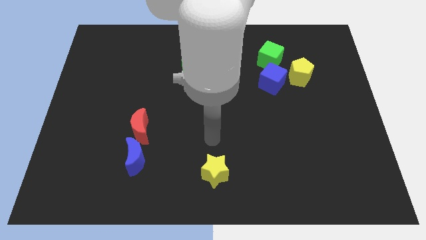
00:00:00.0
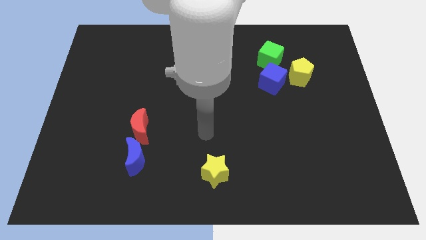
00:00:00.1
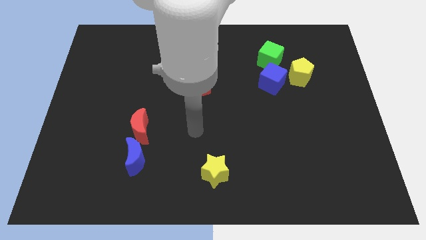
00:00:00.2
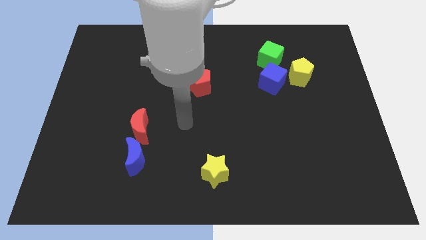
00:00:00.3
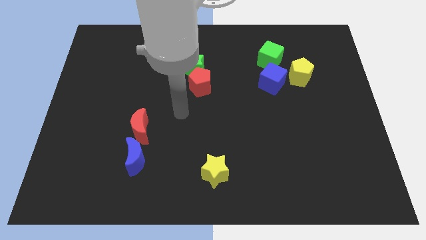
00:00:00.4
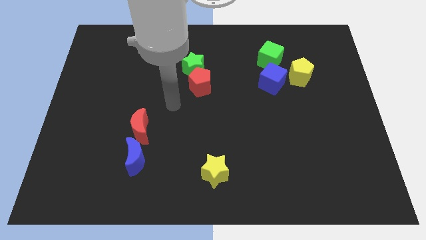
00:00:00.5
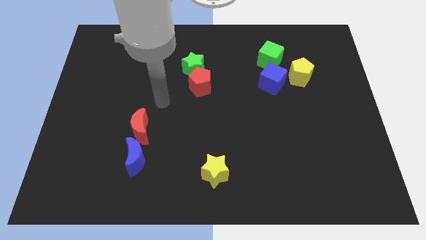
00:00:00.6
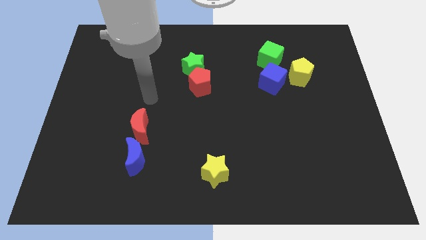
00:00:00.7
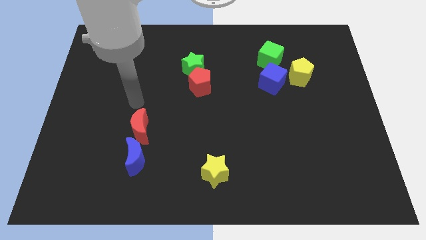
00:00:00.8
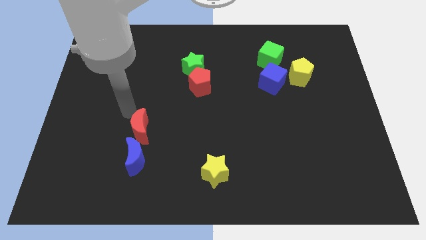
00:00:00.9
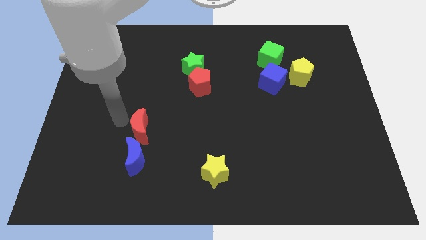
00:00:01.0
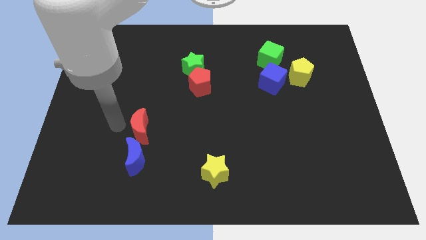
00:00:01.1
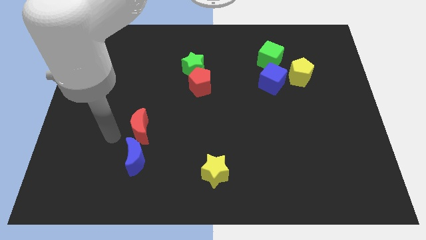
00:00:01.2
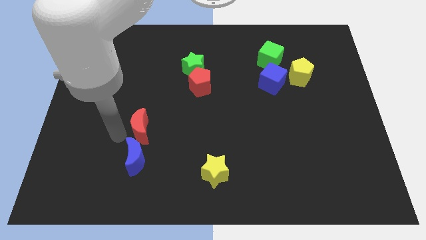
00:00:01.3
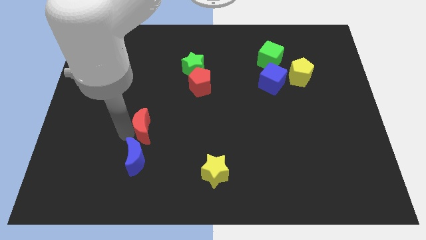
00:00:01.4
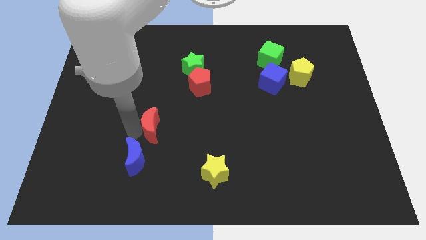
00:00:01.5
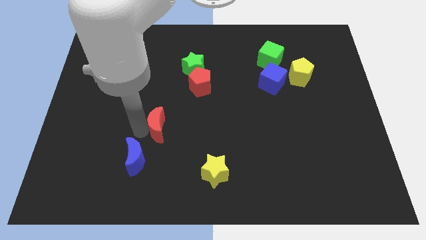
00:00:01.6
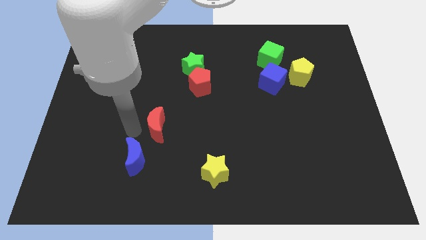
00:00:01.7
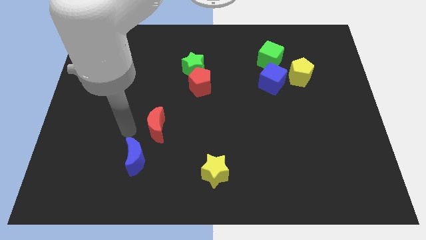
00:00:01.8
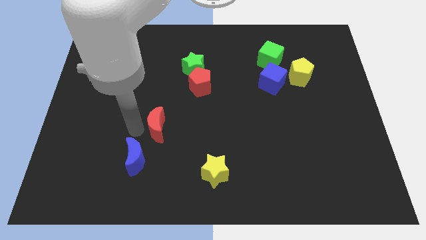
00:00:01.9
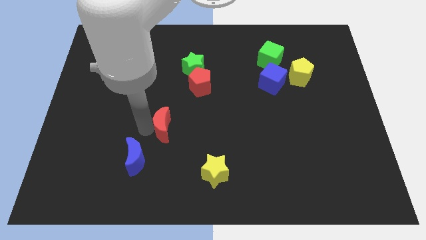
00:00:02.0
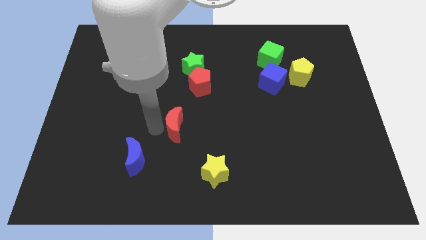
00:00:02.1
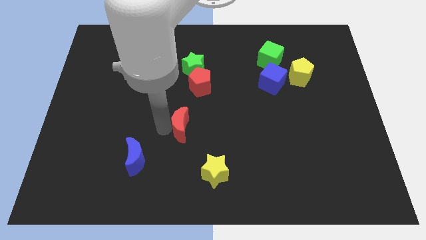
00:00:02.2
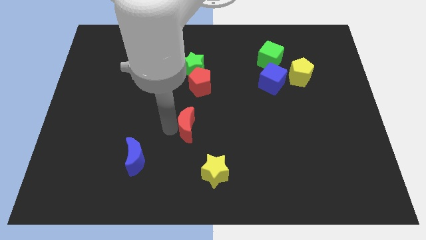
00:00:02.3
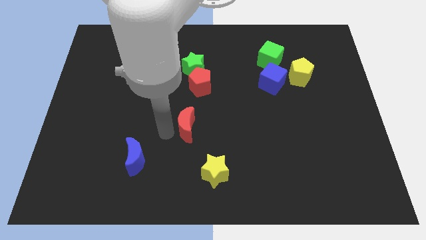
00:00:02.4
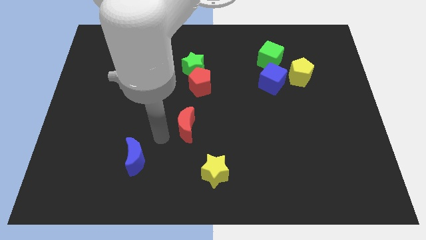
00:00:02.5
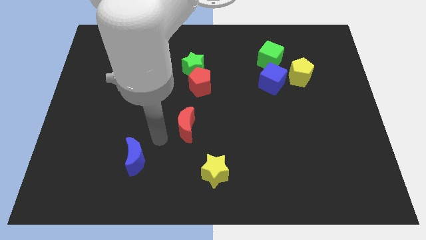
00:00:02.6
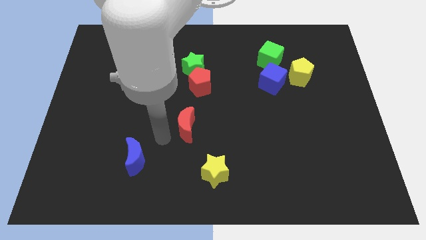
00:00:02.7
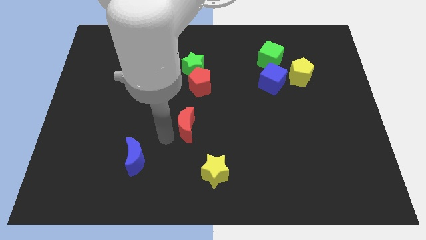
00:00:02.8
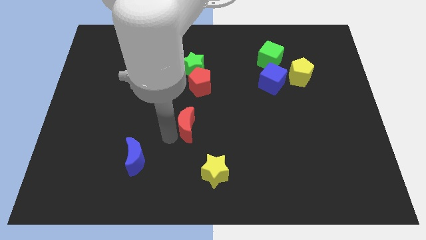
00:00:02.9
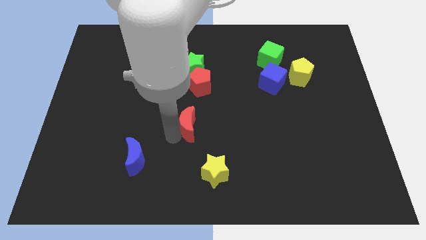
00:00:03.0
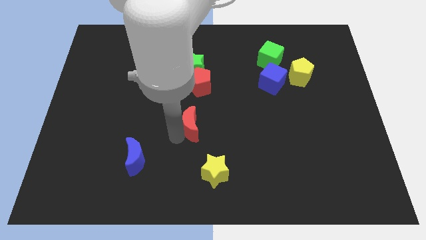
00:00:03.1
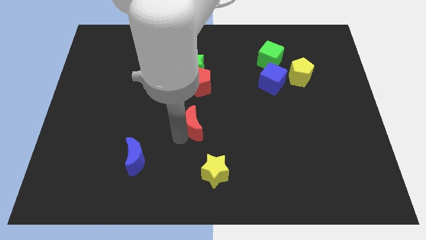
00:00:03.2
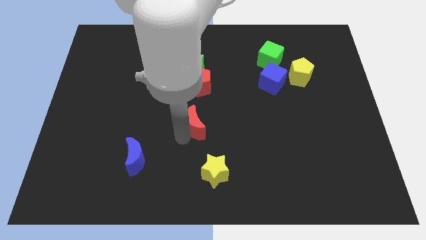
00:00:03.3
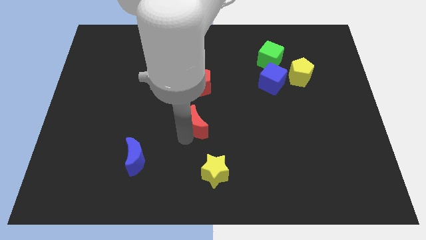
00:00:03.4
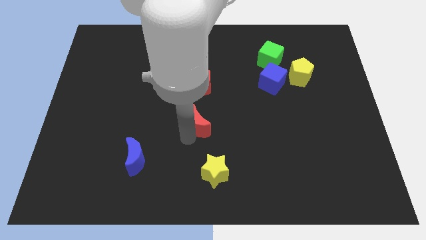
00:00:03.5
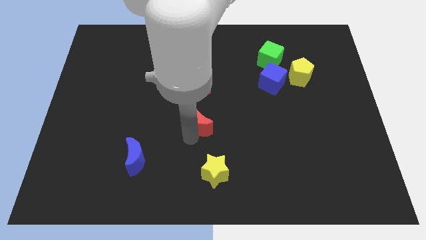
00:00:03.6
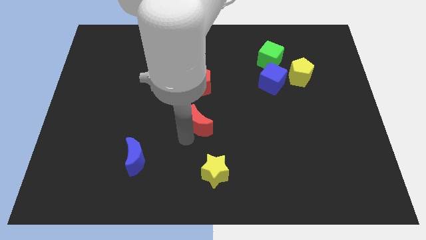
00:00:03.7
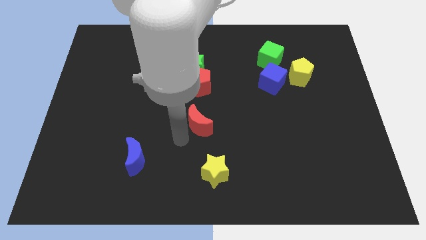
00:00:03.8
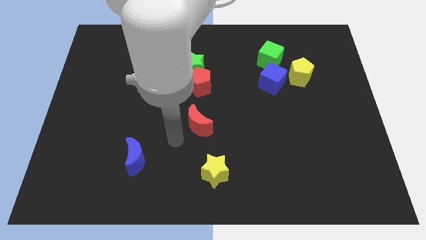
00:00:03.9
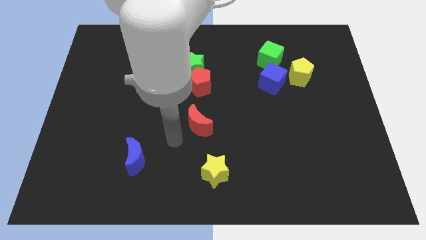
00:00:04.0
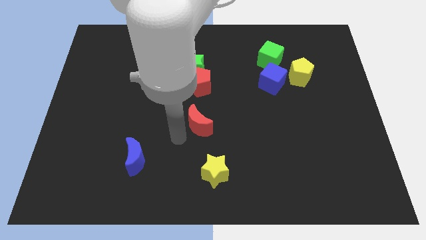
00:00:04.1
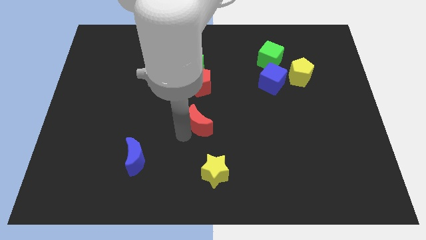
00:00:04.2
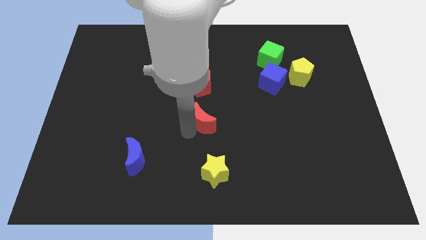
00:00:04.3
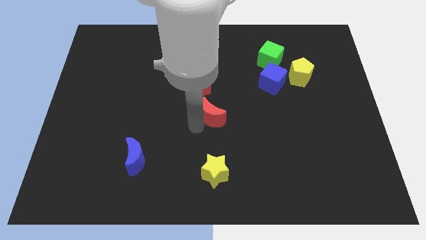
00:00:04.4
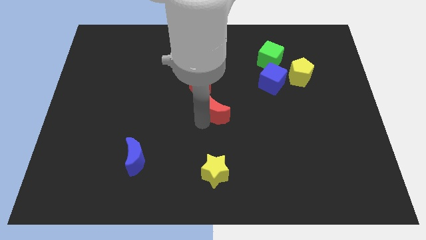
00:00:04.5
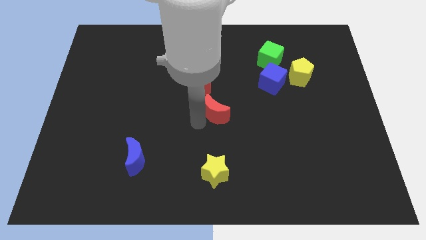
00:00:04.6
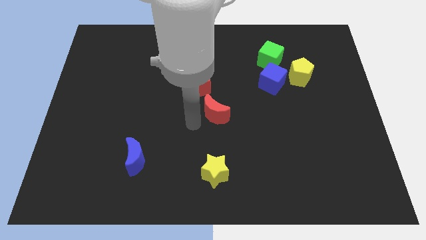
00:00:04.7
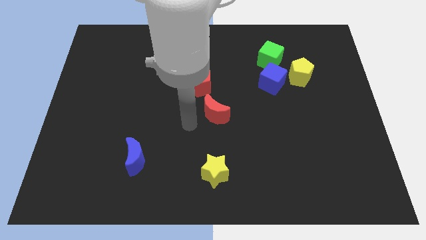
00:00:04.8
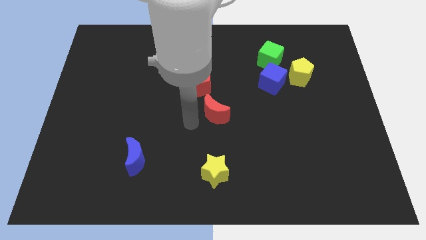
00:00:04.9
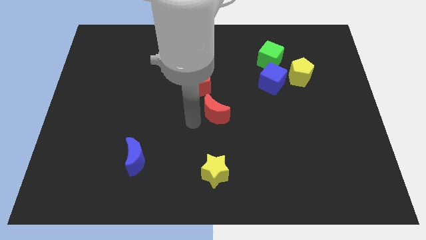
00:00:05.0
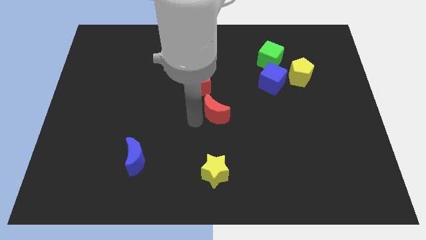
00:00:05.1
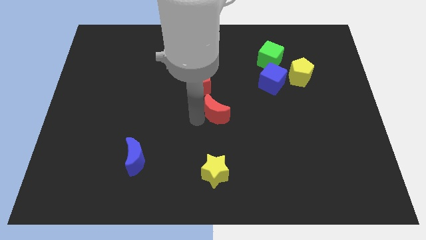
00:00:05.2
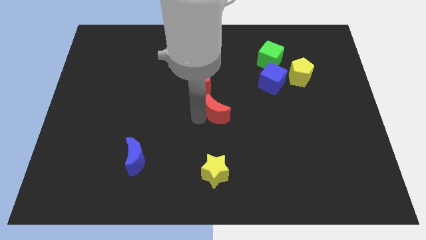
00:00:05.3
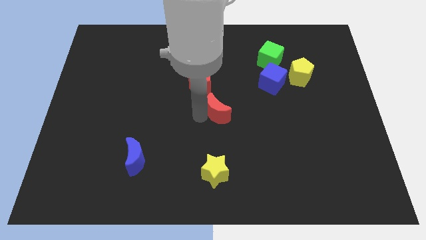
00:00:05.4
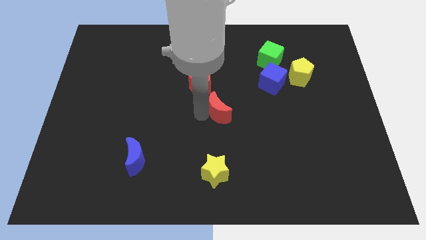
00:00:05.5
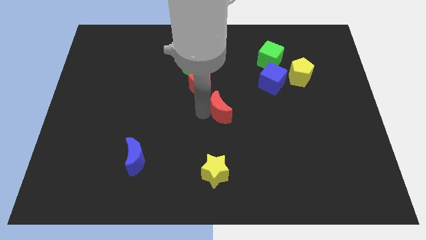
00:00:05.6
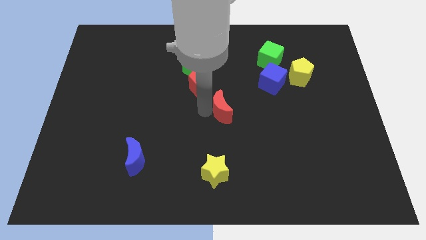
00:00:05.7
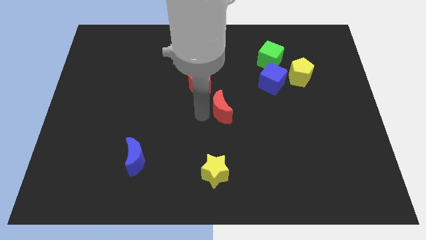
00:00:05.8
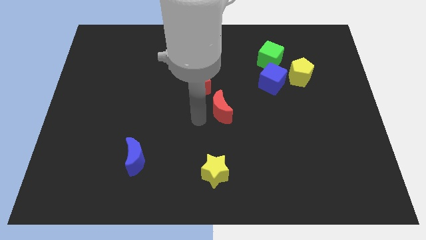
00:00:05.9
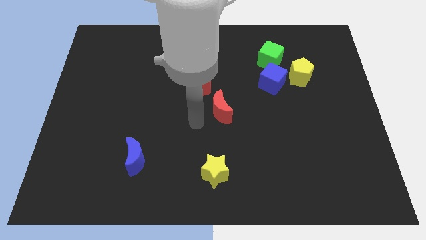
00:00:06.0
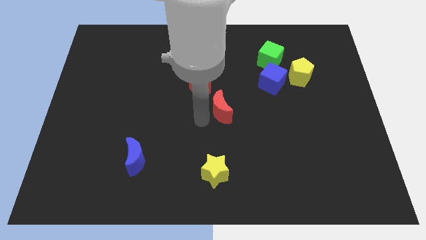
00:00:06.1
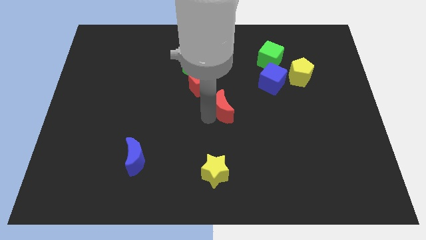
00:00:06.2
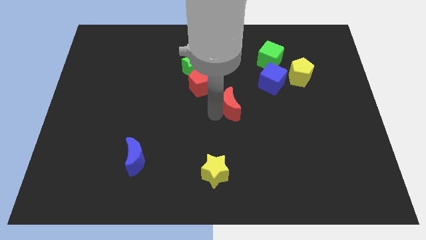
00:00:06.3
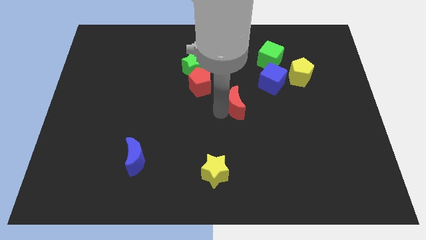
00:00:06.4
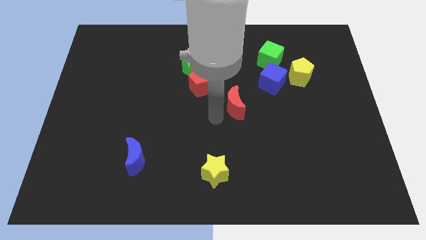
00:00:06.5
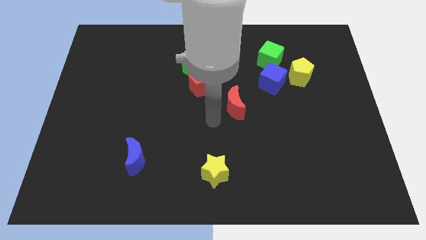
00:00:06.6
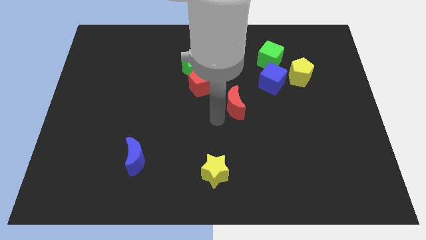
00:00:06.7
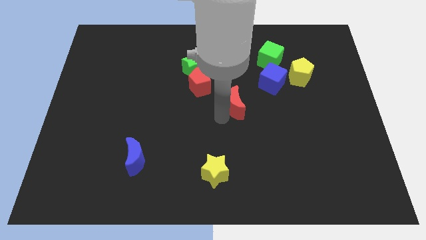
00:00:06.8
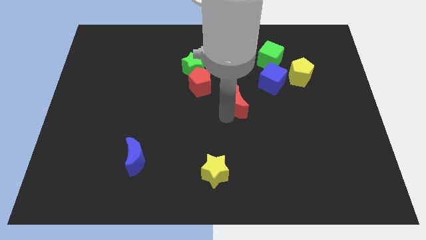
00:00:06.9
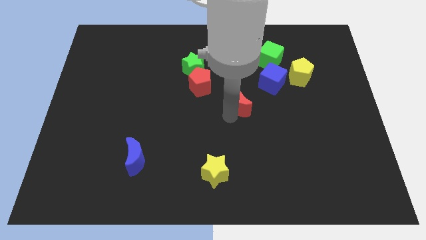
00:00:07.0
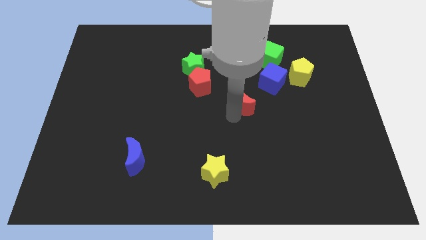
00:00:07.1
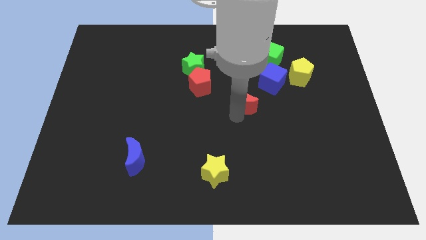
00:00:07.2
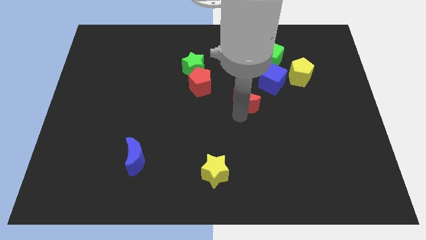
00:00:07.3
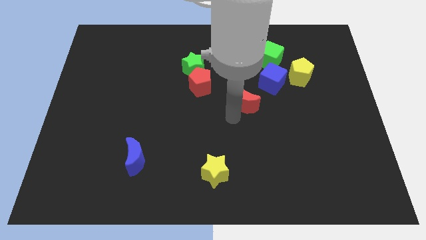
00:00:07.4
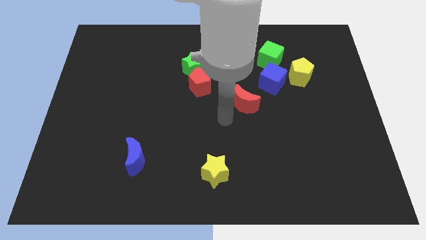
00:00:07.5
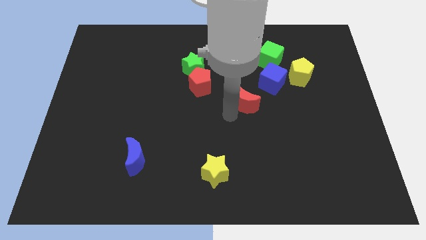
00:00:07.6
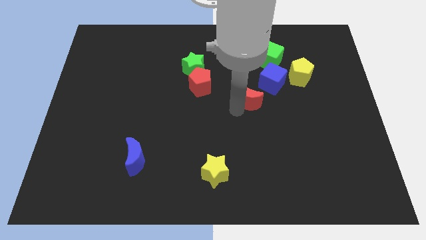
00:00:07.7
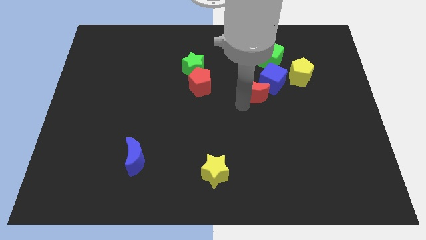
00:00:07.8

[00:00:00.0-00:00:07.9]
slide the red moon to the blue cube
